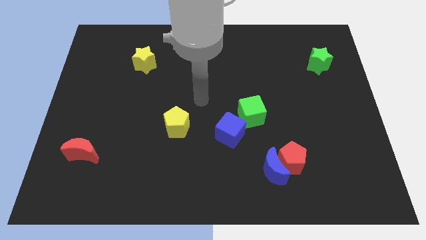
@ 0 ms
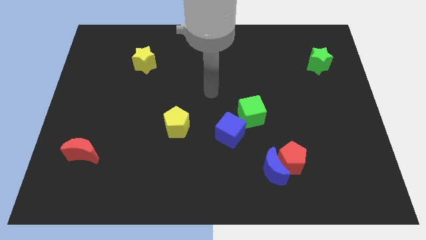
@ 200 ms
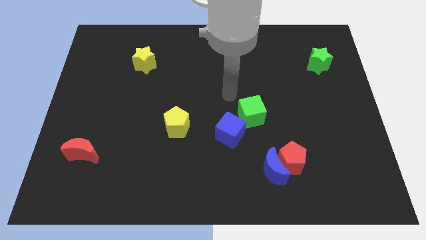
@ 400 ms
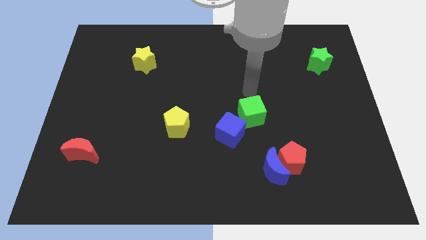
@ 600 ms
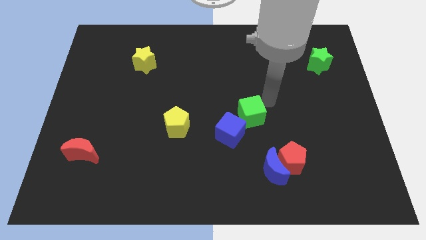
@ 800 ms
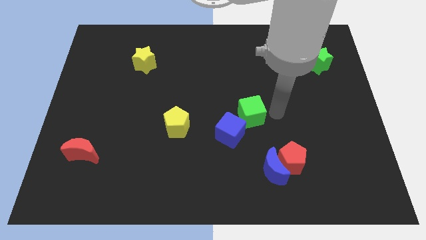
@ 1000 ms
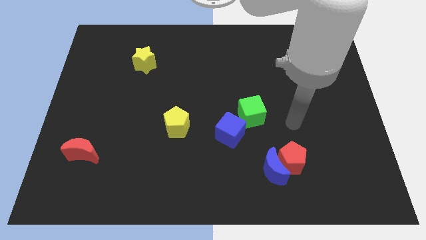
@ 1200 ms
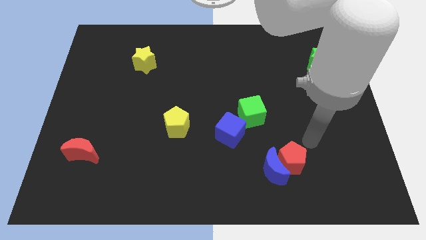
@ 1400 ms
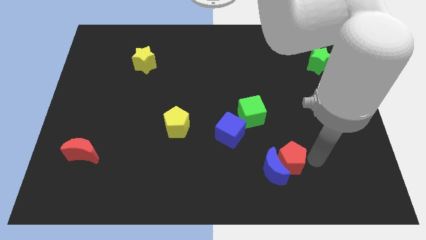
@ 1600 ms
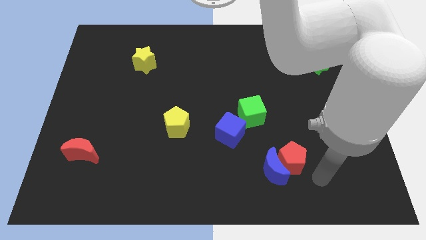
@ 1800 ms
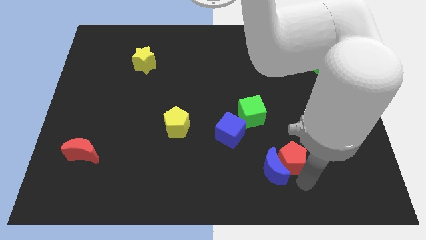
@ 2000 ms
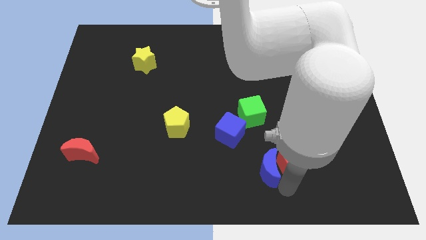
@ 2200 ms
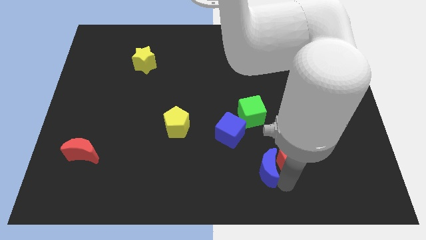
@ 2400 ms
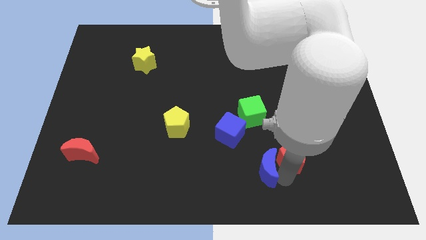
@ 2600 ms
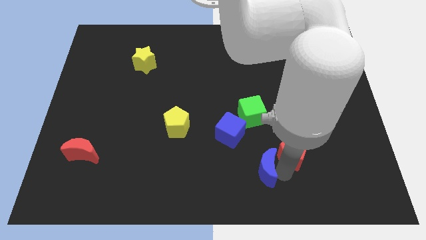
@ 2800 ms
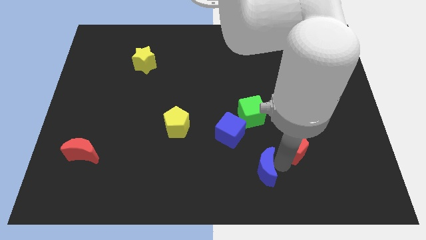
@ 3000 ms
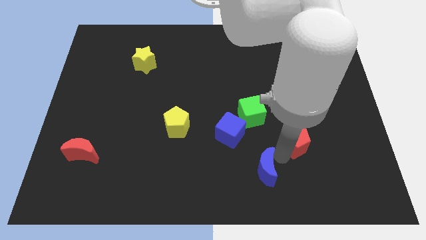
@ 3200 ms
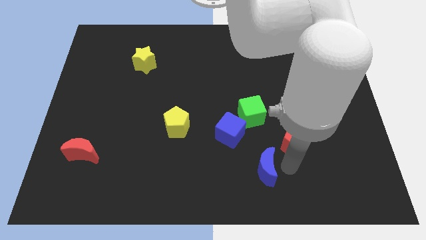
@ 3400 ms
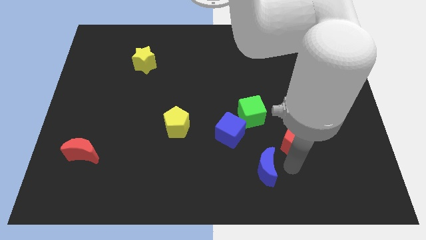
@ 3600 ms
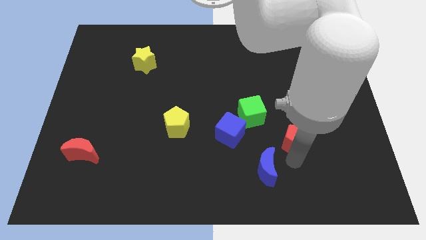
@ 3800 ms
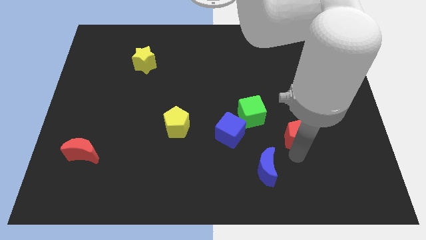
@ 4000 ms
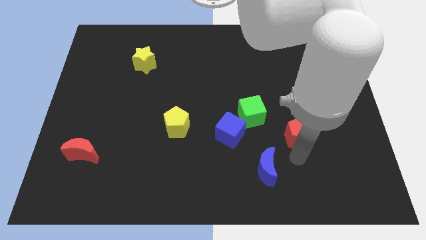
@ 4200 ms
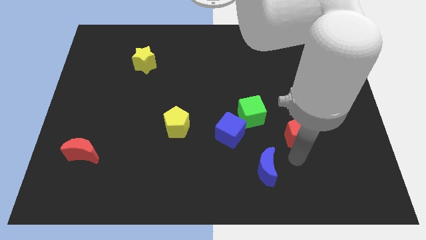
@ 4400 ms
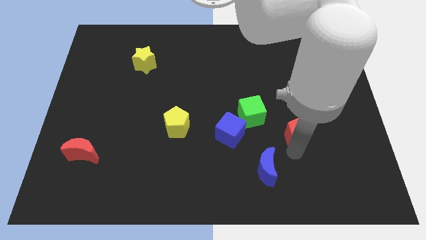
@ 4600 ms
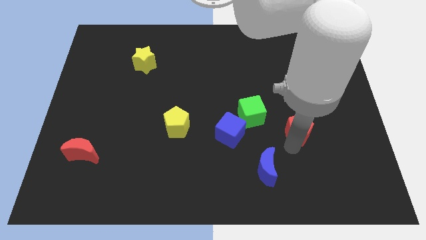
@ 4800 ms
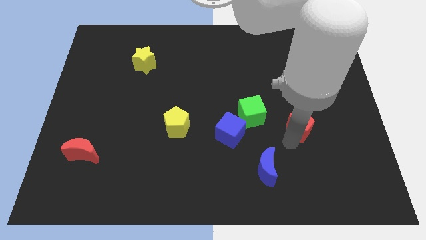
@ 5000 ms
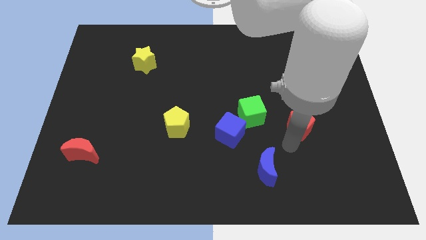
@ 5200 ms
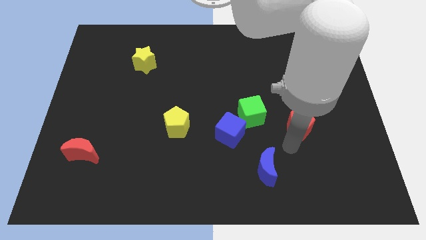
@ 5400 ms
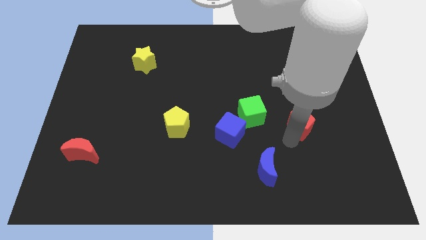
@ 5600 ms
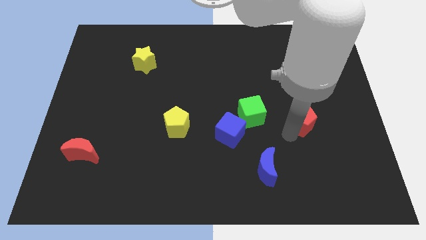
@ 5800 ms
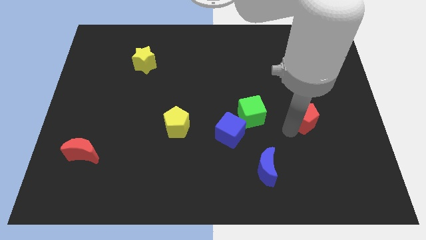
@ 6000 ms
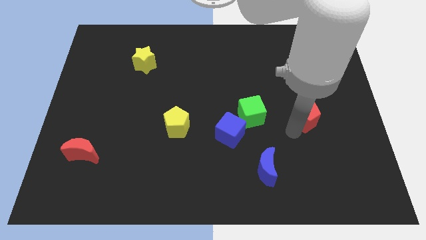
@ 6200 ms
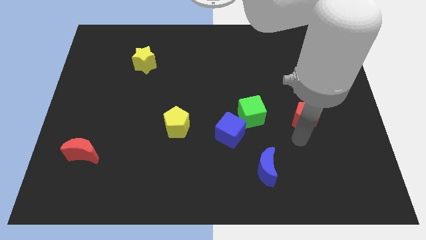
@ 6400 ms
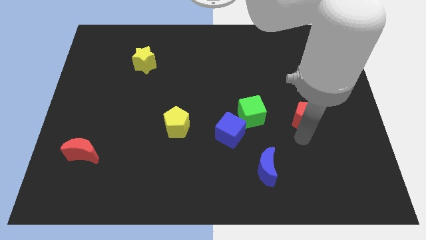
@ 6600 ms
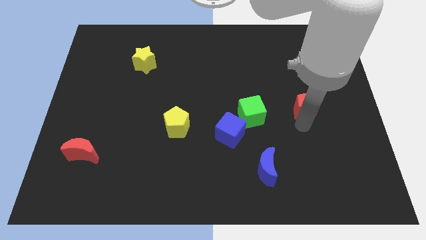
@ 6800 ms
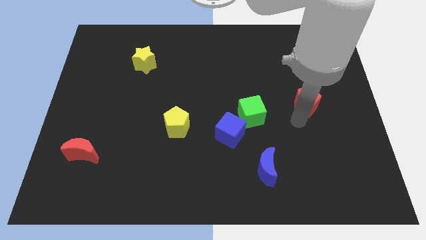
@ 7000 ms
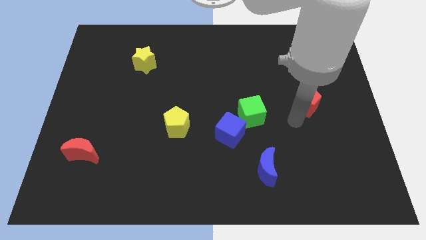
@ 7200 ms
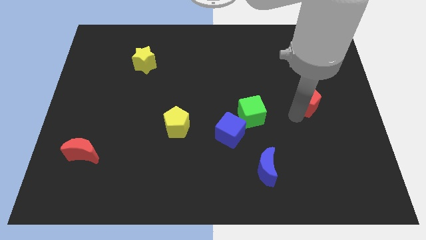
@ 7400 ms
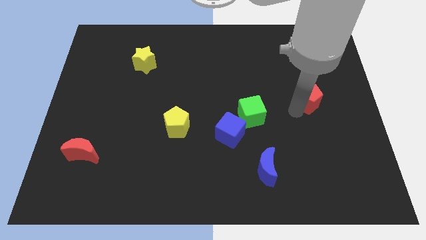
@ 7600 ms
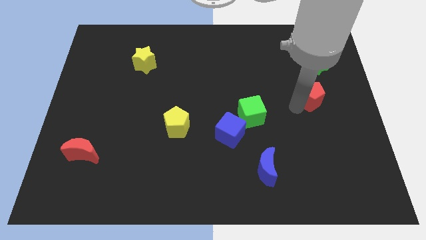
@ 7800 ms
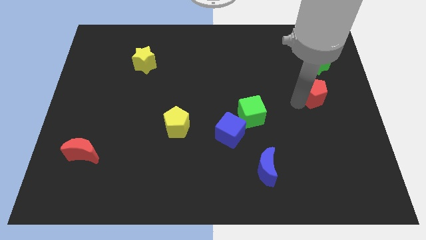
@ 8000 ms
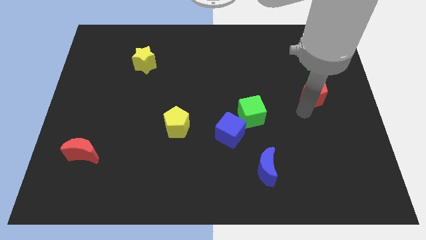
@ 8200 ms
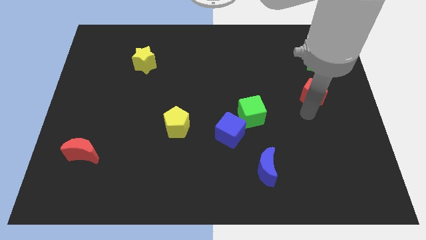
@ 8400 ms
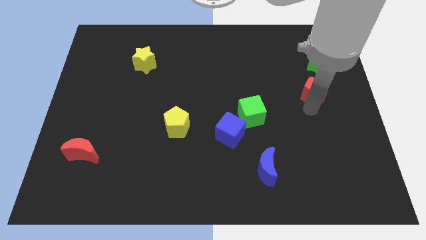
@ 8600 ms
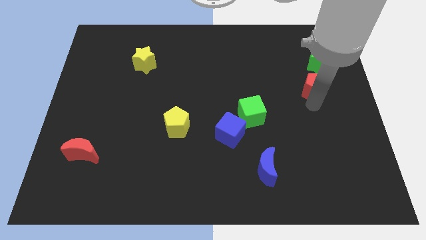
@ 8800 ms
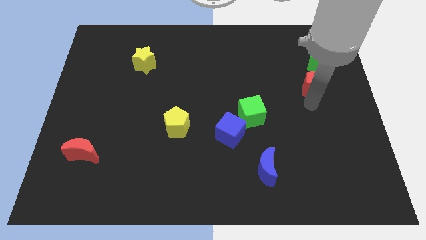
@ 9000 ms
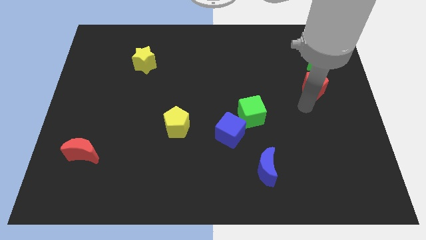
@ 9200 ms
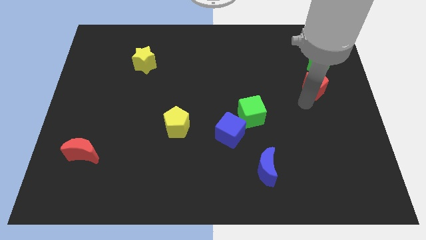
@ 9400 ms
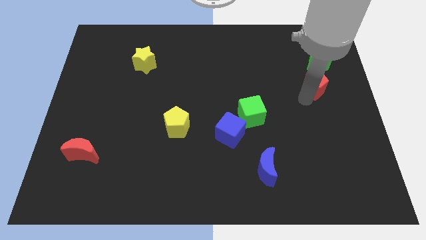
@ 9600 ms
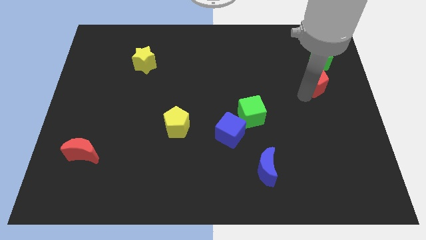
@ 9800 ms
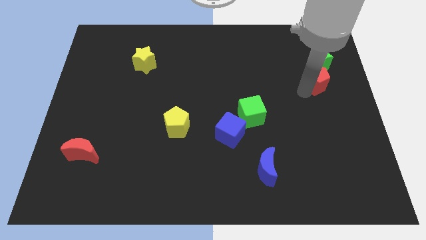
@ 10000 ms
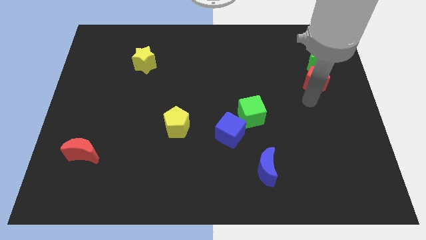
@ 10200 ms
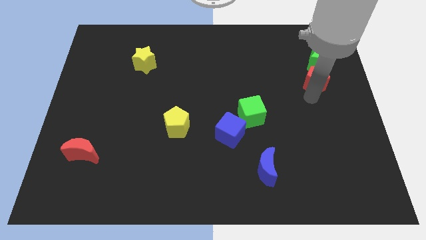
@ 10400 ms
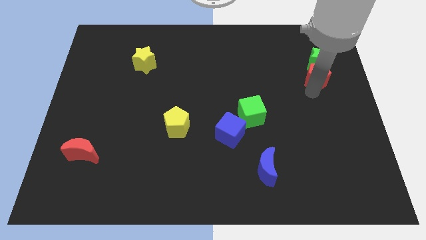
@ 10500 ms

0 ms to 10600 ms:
push the red pentagon next to the green star

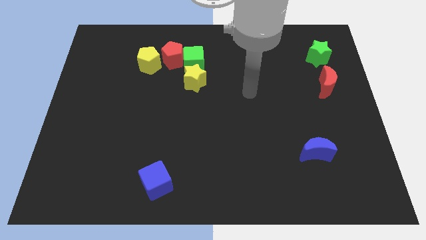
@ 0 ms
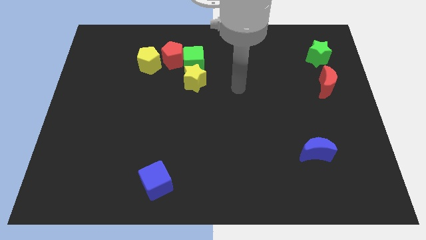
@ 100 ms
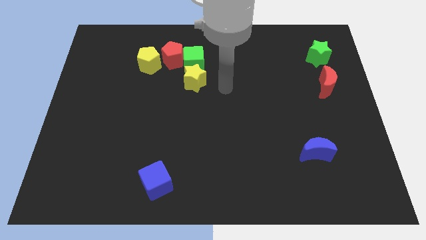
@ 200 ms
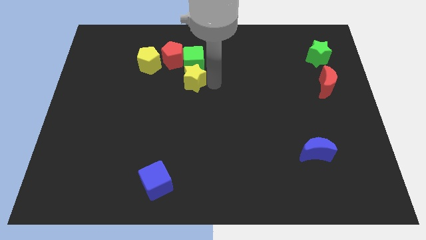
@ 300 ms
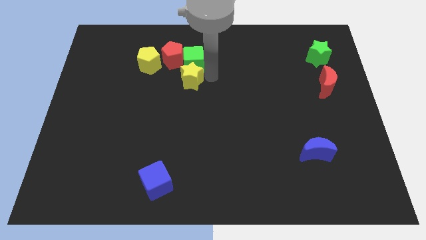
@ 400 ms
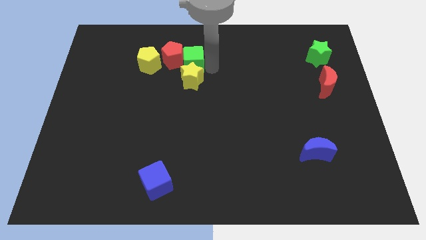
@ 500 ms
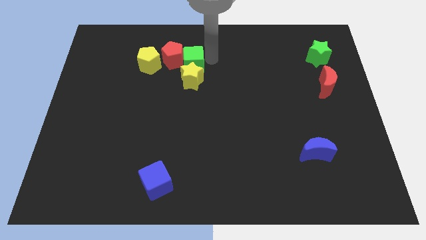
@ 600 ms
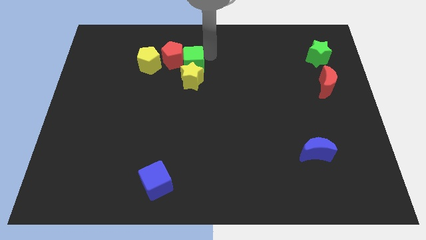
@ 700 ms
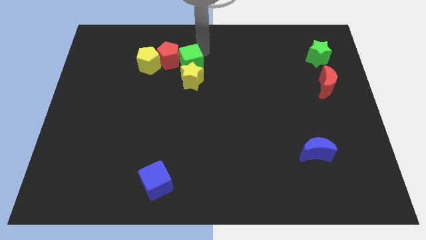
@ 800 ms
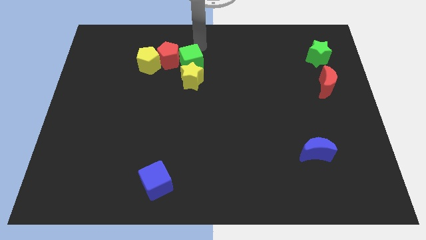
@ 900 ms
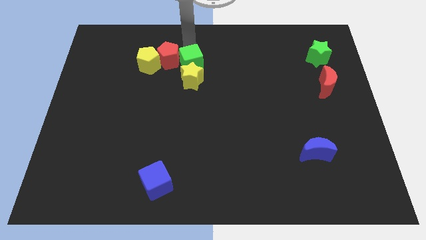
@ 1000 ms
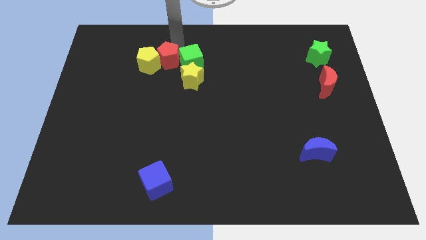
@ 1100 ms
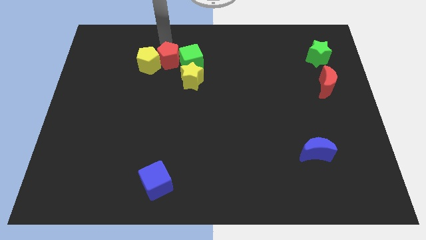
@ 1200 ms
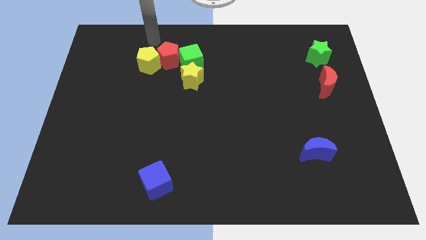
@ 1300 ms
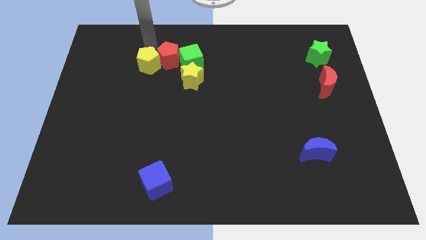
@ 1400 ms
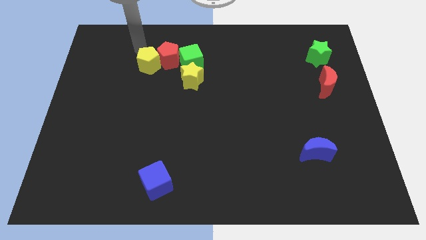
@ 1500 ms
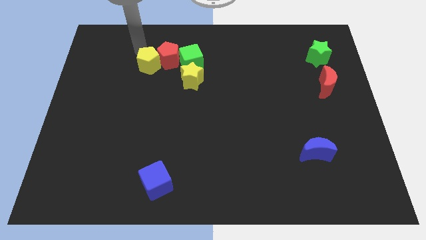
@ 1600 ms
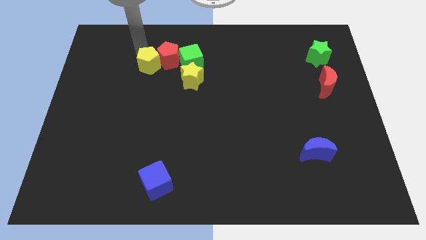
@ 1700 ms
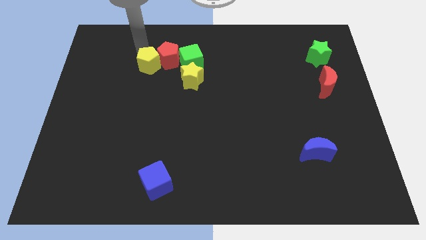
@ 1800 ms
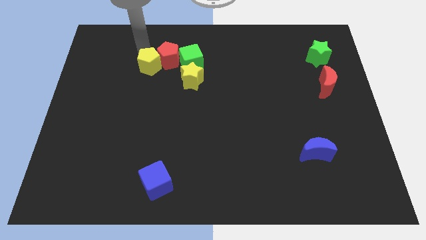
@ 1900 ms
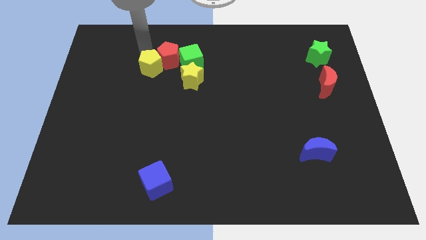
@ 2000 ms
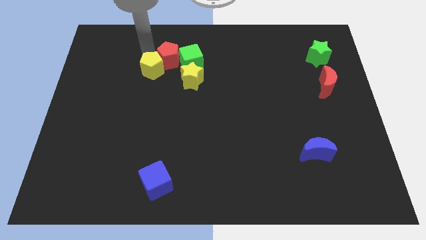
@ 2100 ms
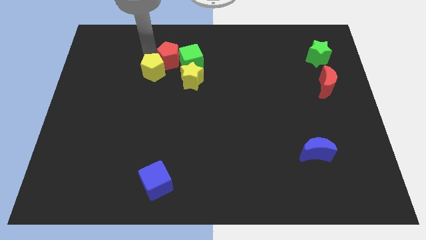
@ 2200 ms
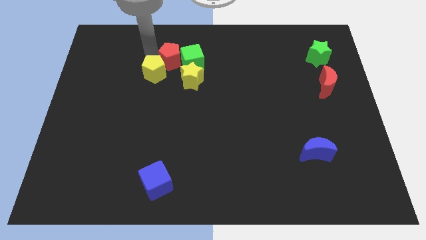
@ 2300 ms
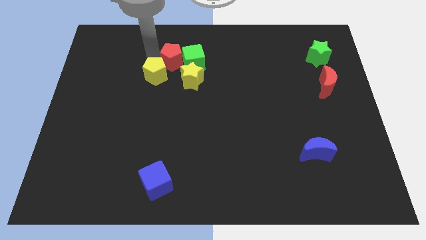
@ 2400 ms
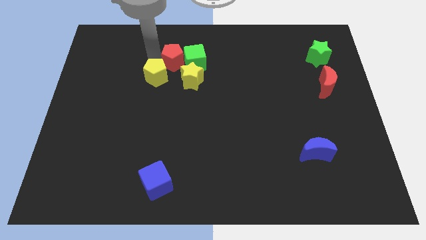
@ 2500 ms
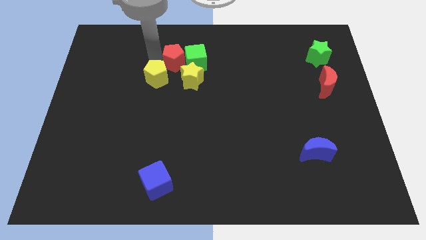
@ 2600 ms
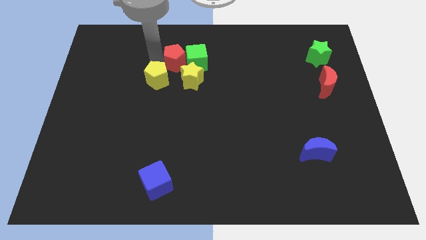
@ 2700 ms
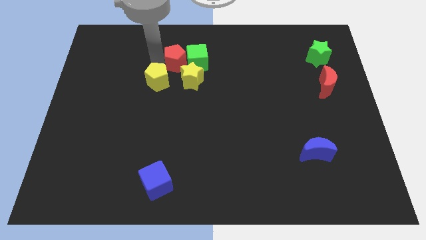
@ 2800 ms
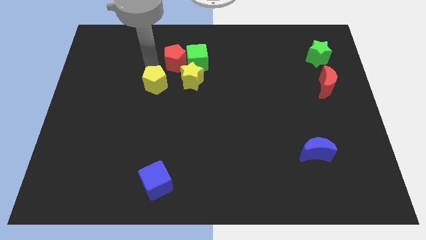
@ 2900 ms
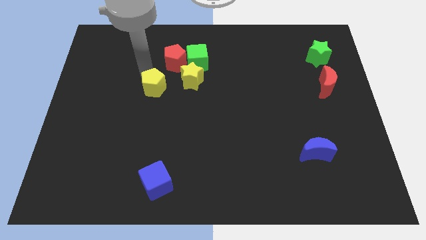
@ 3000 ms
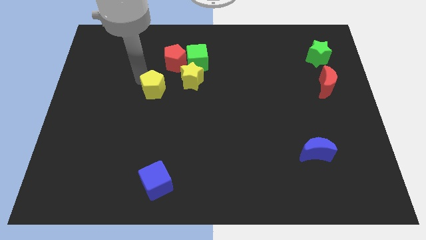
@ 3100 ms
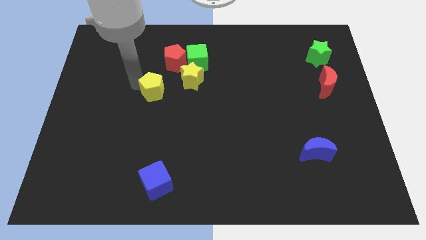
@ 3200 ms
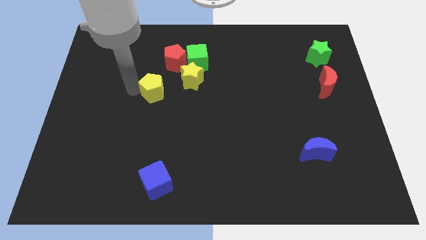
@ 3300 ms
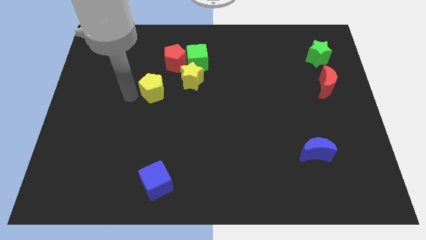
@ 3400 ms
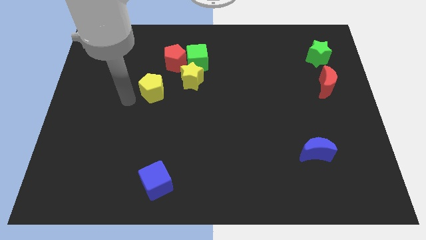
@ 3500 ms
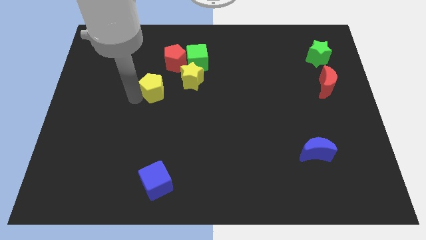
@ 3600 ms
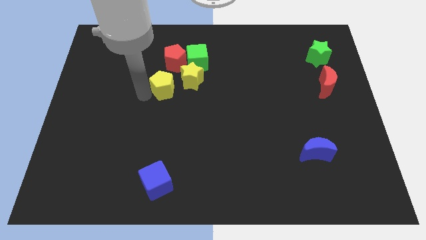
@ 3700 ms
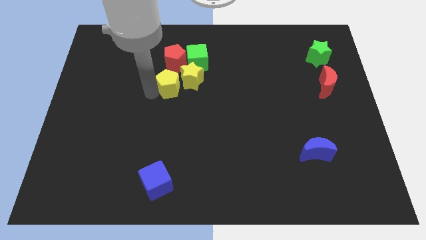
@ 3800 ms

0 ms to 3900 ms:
move the yellow pentagon to the yellow star
